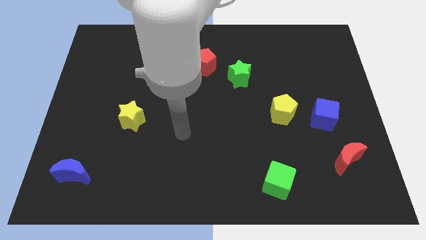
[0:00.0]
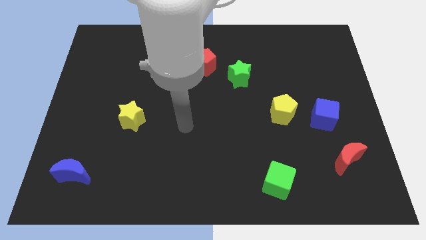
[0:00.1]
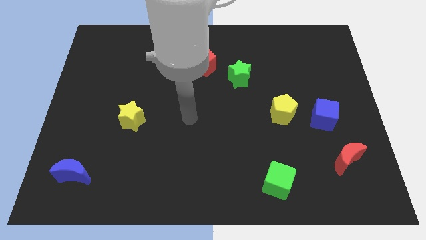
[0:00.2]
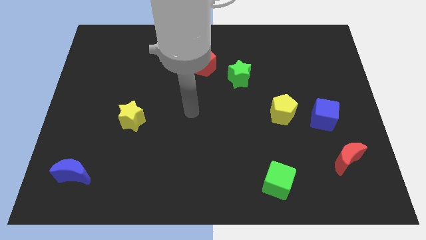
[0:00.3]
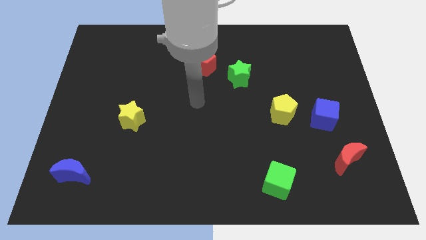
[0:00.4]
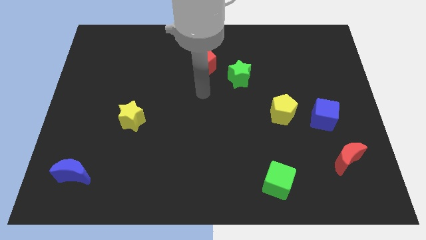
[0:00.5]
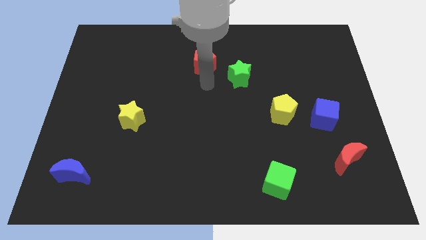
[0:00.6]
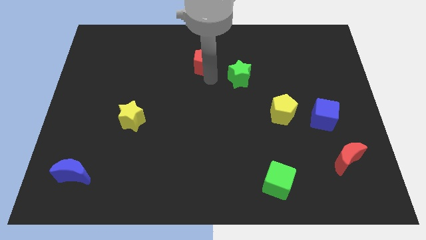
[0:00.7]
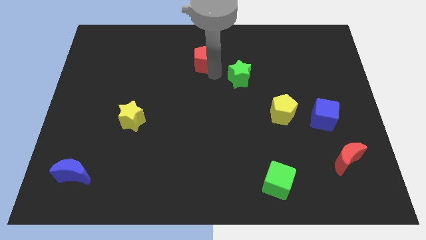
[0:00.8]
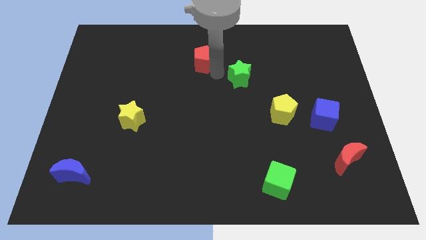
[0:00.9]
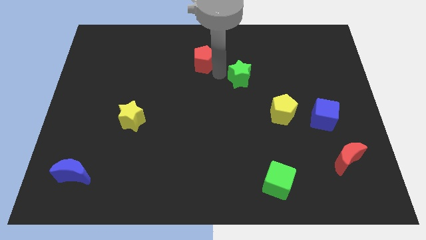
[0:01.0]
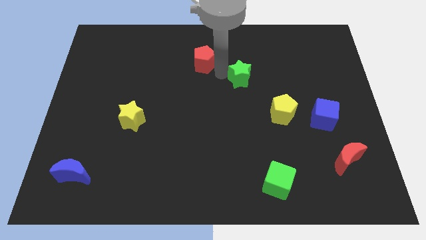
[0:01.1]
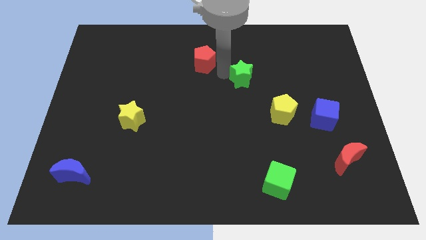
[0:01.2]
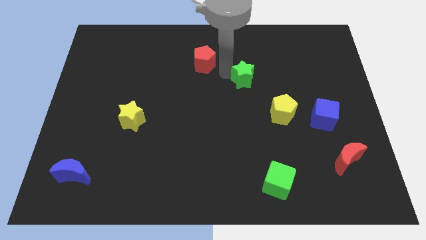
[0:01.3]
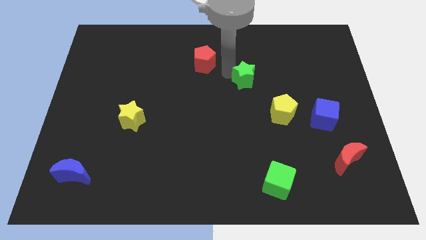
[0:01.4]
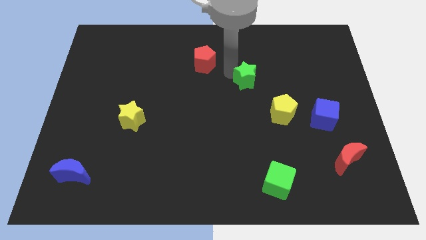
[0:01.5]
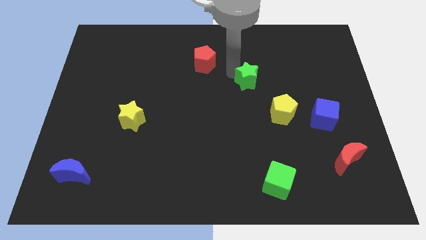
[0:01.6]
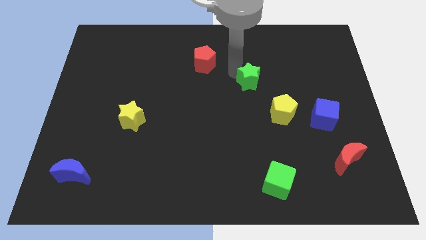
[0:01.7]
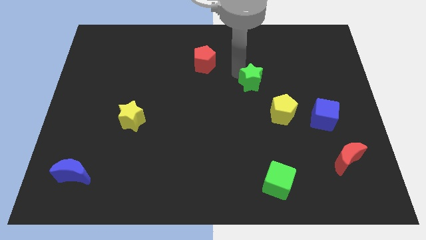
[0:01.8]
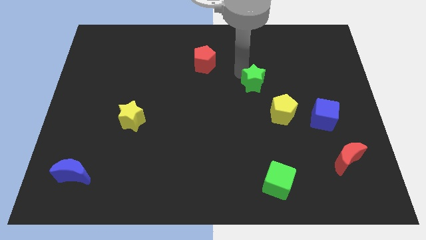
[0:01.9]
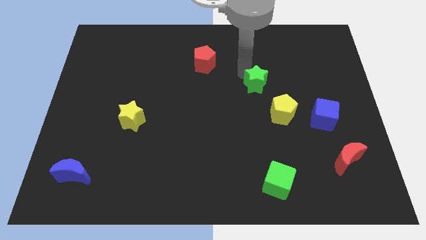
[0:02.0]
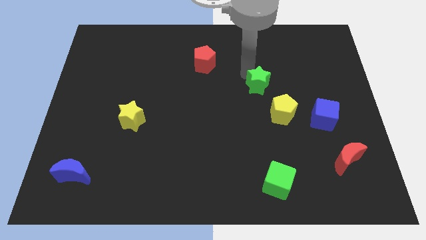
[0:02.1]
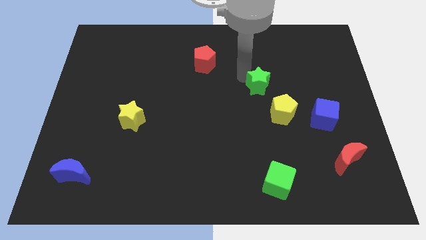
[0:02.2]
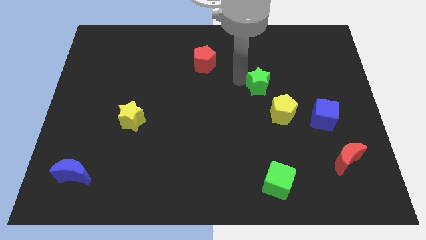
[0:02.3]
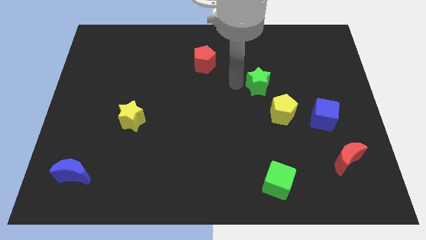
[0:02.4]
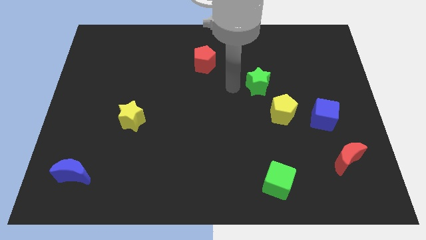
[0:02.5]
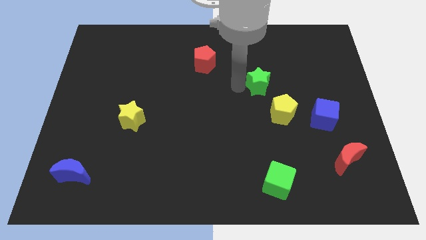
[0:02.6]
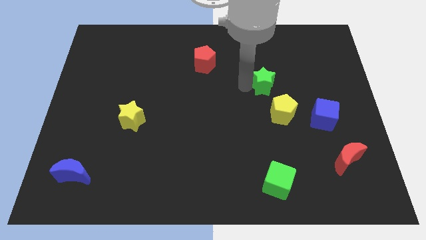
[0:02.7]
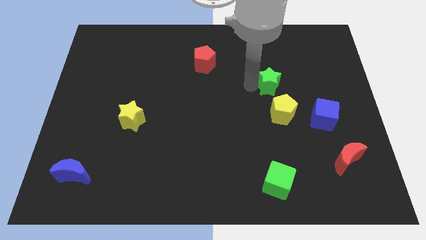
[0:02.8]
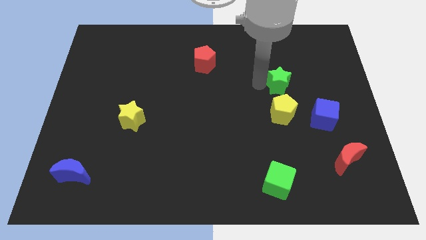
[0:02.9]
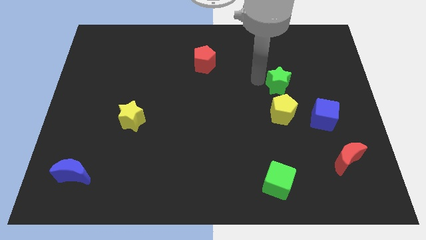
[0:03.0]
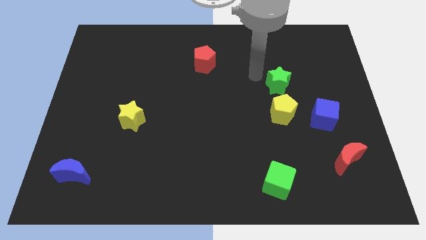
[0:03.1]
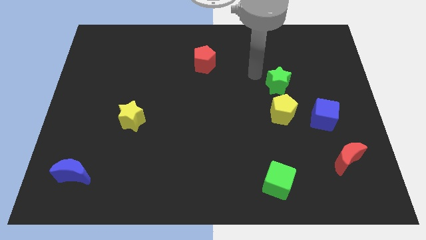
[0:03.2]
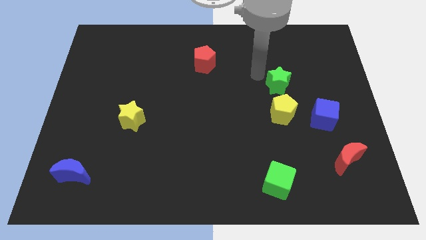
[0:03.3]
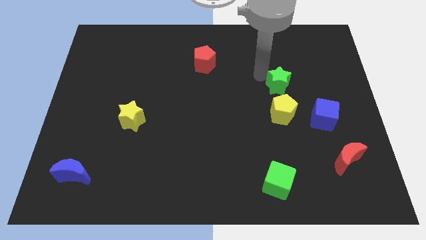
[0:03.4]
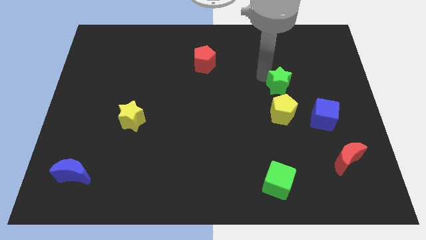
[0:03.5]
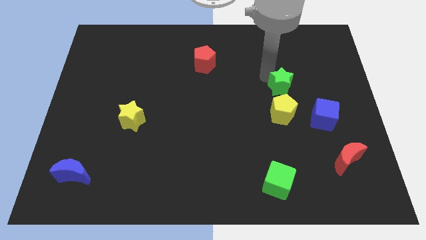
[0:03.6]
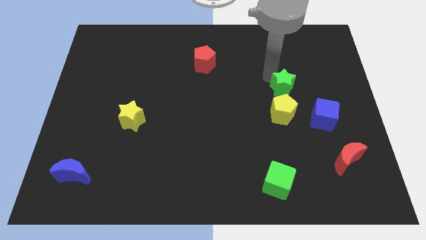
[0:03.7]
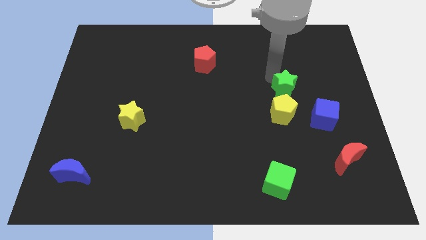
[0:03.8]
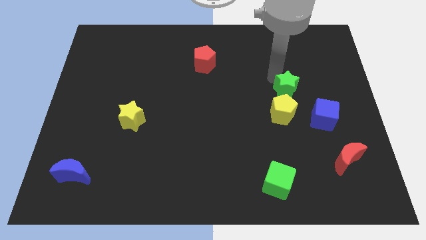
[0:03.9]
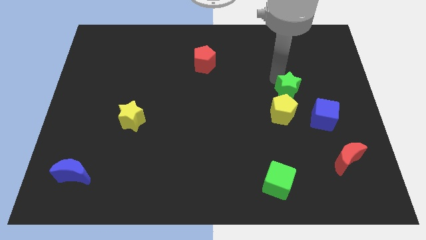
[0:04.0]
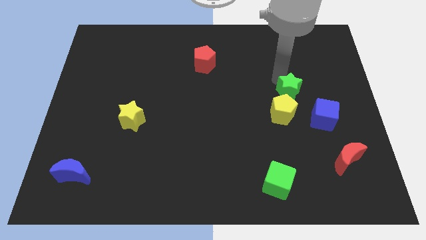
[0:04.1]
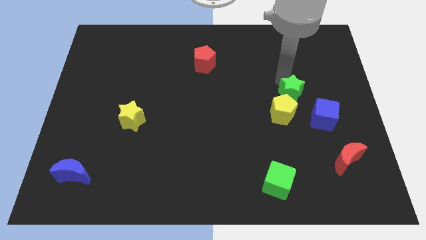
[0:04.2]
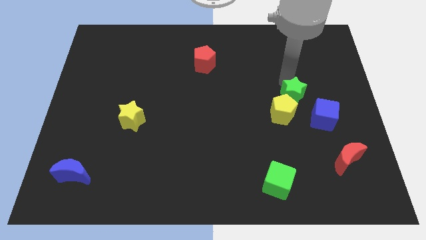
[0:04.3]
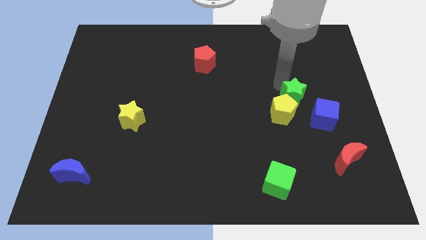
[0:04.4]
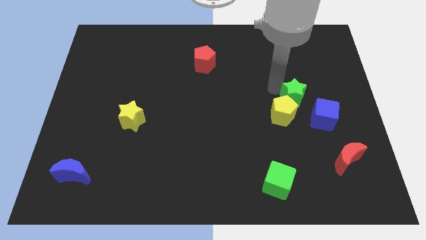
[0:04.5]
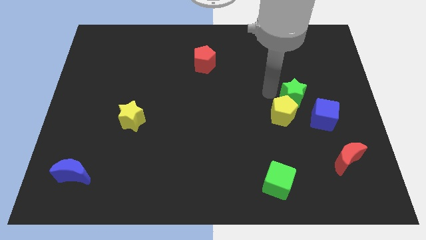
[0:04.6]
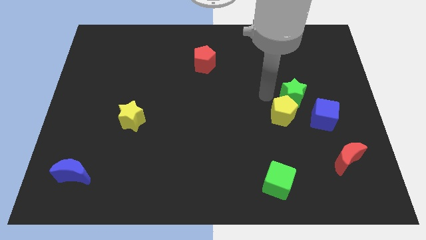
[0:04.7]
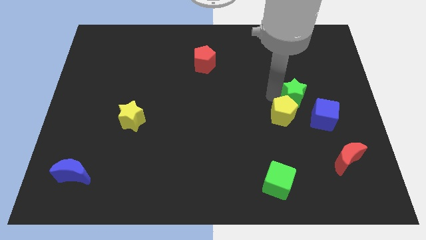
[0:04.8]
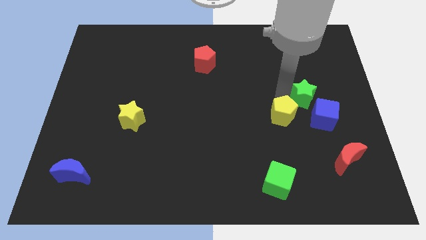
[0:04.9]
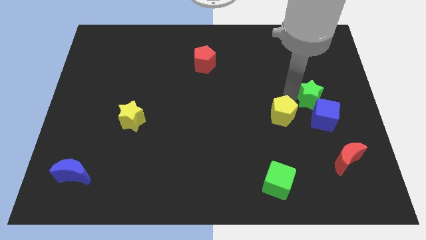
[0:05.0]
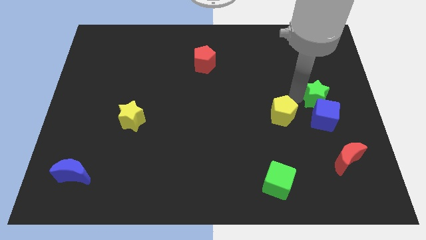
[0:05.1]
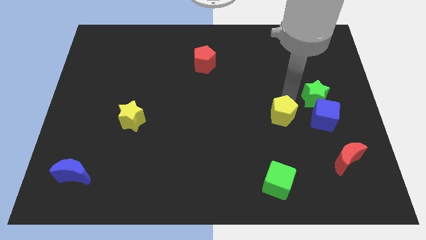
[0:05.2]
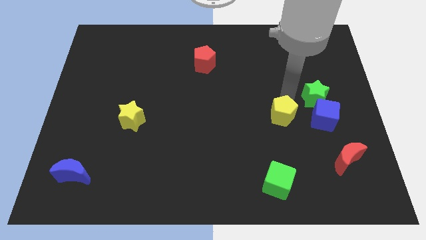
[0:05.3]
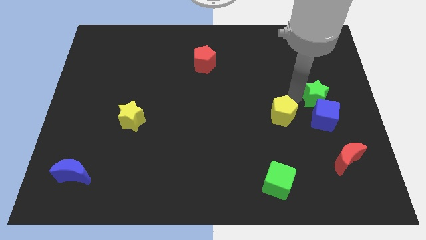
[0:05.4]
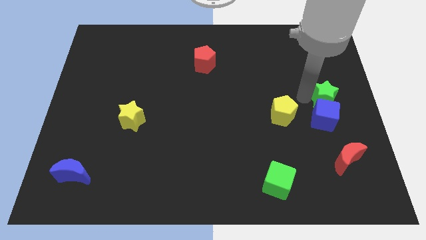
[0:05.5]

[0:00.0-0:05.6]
put the green star to the right side of the board
